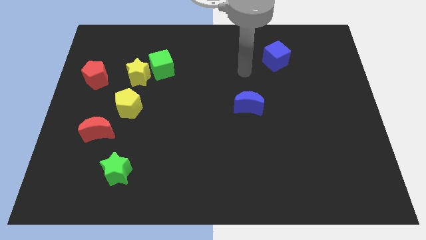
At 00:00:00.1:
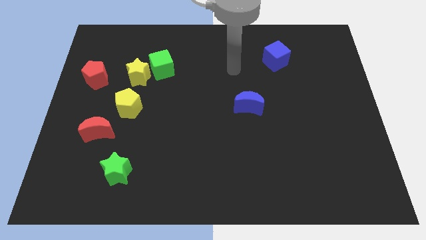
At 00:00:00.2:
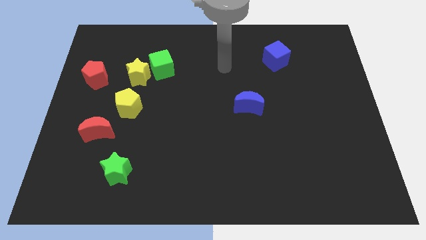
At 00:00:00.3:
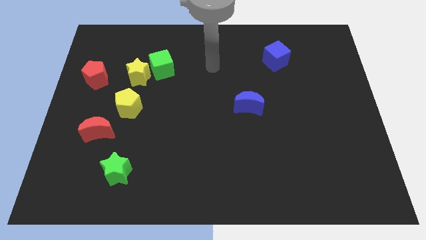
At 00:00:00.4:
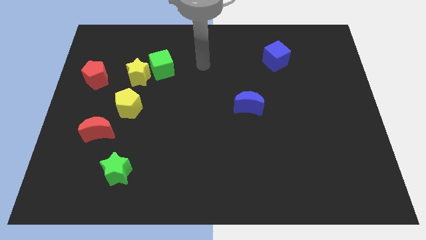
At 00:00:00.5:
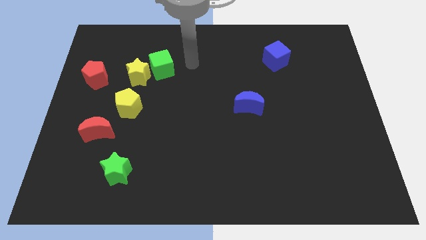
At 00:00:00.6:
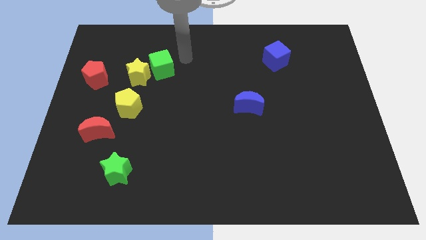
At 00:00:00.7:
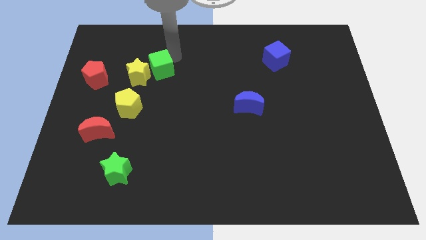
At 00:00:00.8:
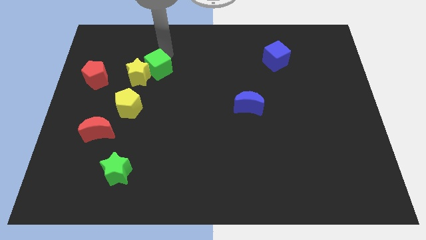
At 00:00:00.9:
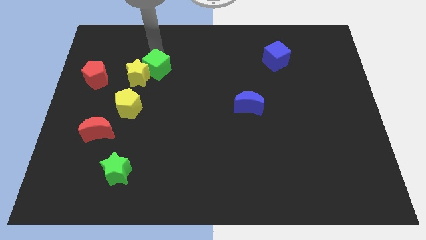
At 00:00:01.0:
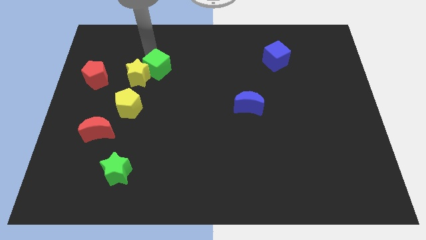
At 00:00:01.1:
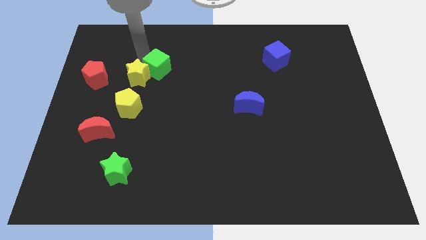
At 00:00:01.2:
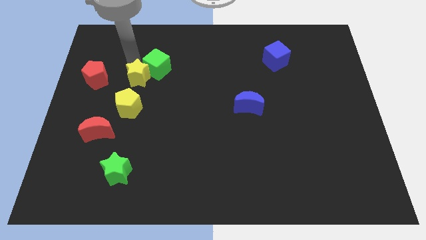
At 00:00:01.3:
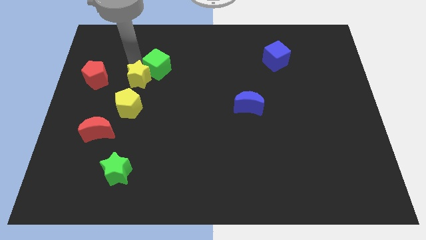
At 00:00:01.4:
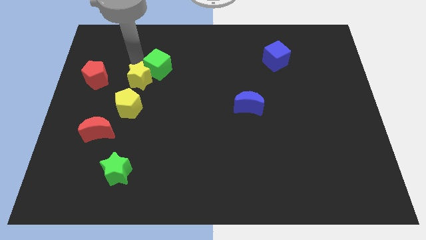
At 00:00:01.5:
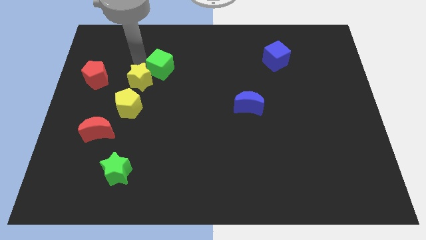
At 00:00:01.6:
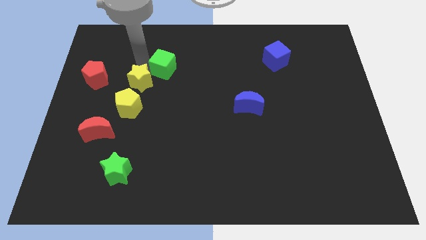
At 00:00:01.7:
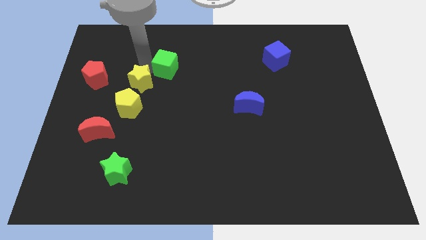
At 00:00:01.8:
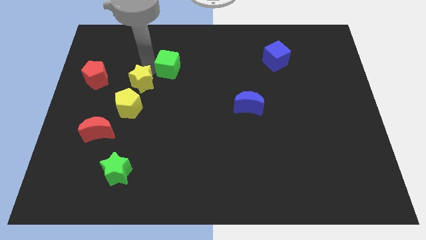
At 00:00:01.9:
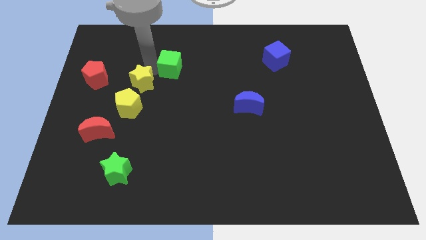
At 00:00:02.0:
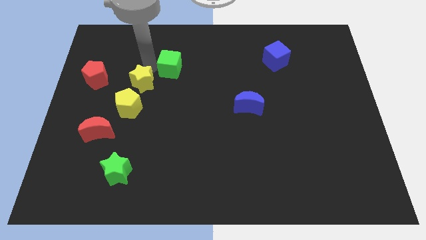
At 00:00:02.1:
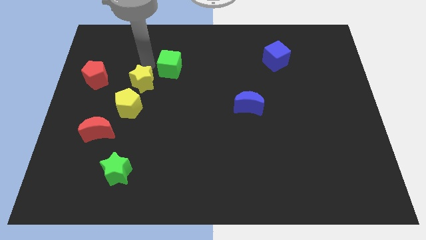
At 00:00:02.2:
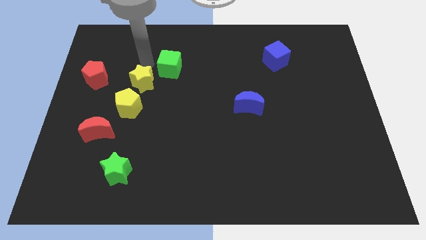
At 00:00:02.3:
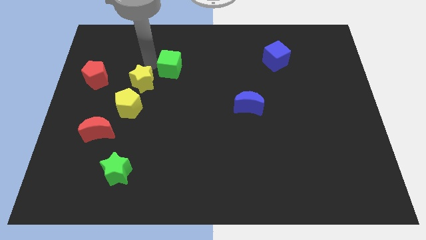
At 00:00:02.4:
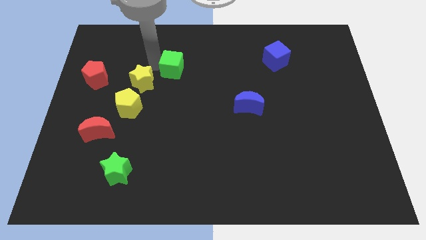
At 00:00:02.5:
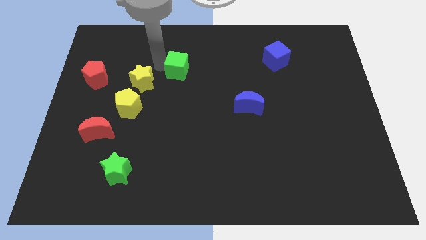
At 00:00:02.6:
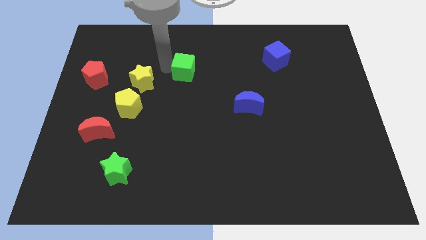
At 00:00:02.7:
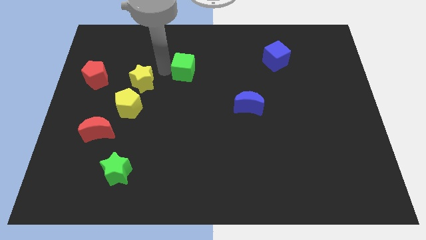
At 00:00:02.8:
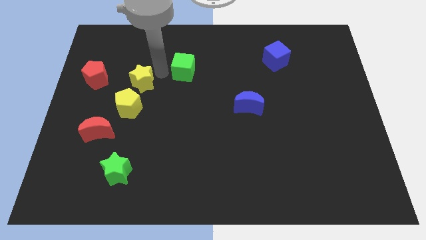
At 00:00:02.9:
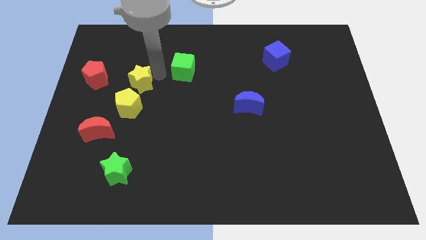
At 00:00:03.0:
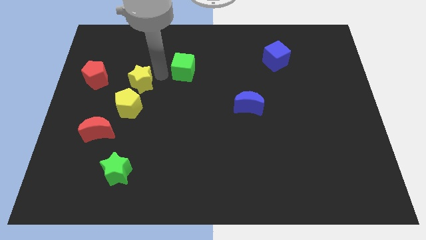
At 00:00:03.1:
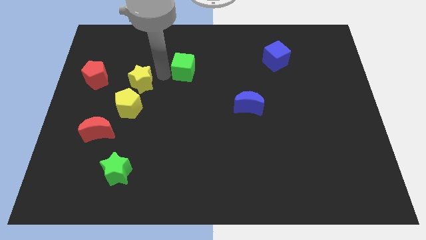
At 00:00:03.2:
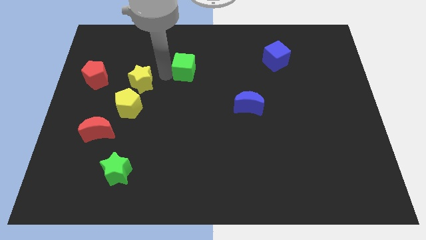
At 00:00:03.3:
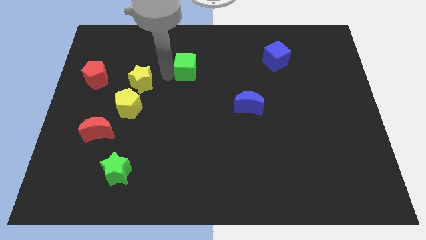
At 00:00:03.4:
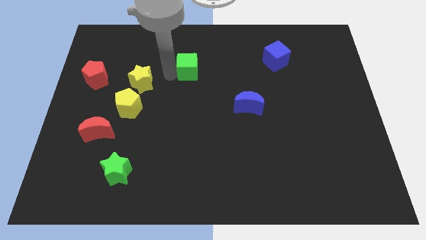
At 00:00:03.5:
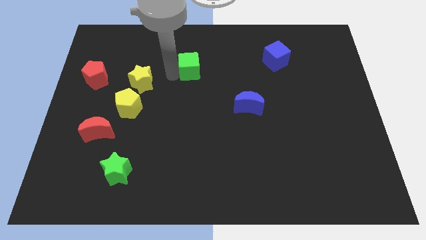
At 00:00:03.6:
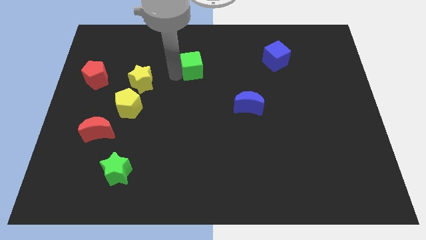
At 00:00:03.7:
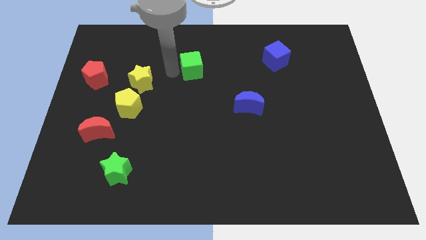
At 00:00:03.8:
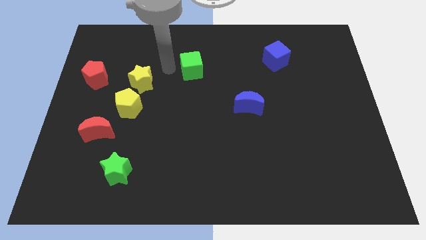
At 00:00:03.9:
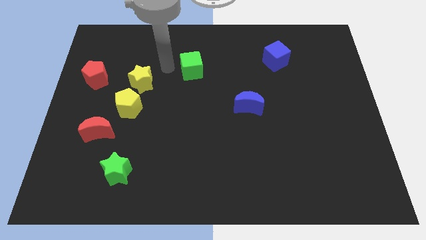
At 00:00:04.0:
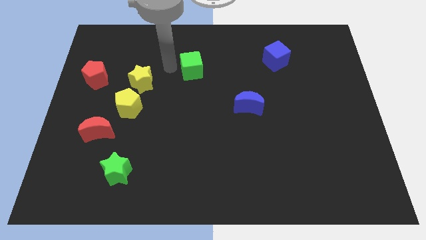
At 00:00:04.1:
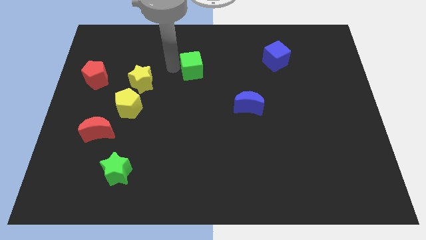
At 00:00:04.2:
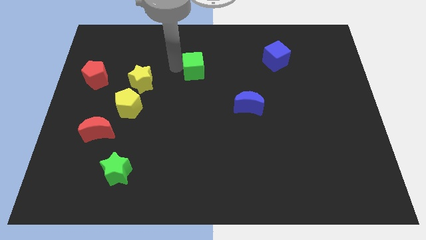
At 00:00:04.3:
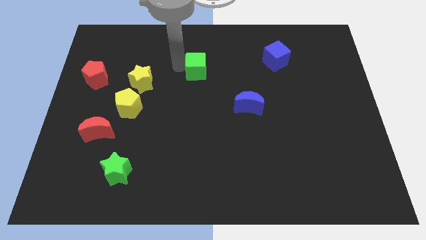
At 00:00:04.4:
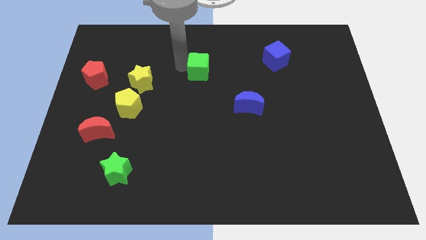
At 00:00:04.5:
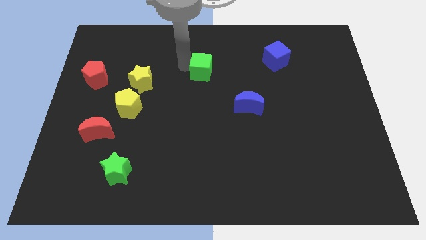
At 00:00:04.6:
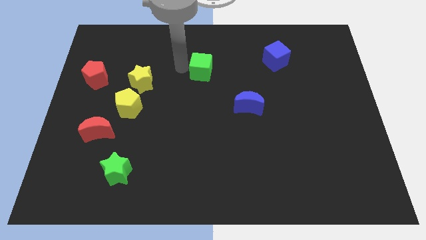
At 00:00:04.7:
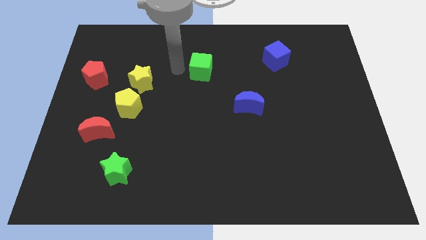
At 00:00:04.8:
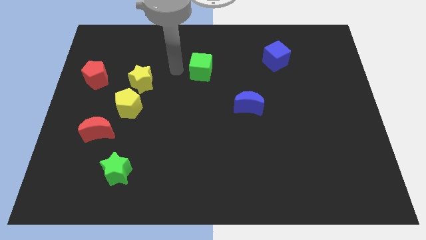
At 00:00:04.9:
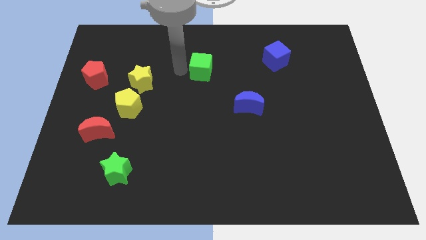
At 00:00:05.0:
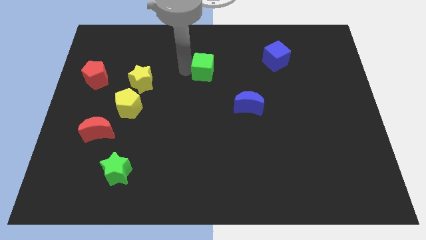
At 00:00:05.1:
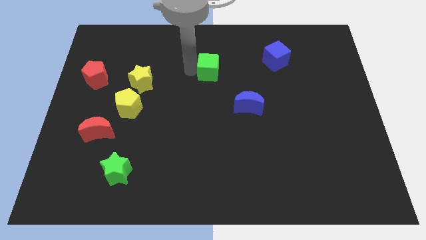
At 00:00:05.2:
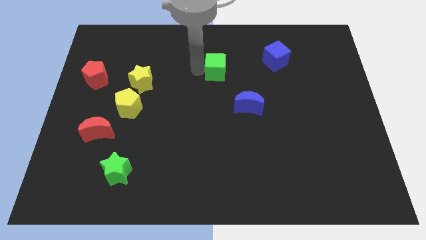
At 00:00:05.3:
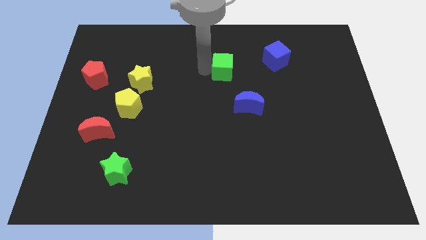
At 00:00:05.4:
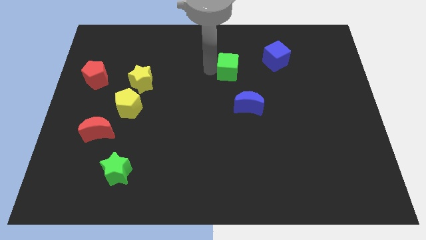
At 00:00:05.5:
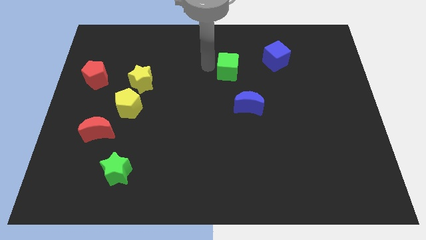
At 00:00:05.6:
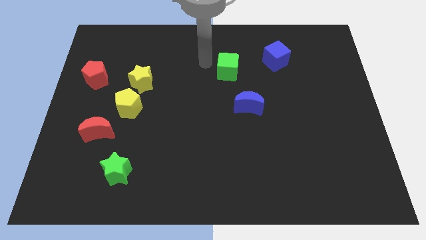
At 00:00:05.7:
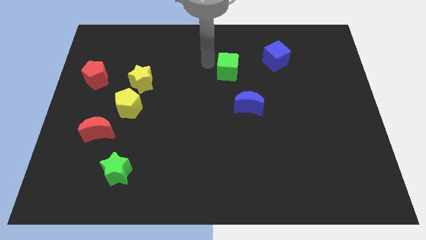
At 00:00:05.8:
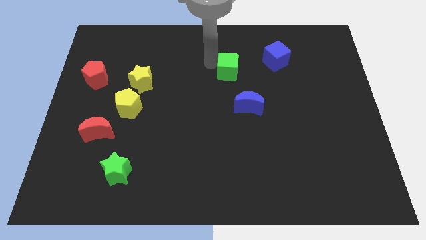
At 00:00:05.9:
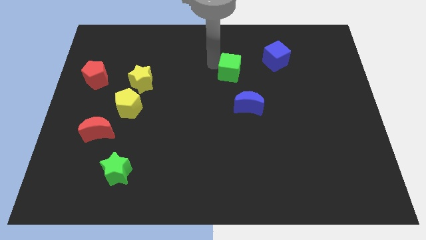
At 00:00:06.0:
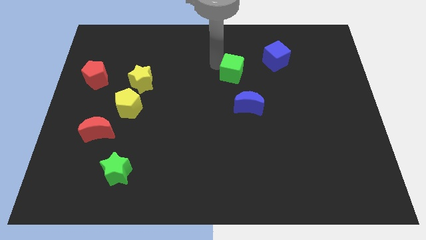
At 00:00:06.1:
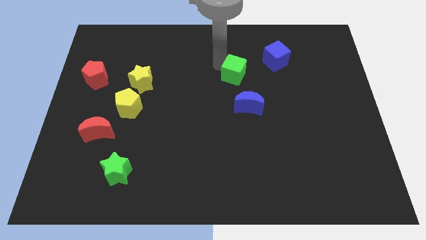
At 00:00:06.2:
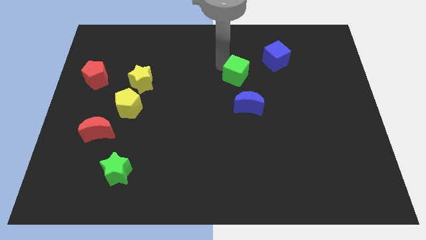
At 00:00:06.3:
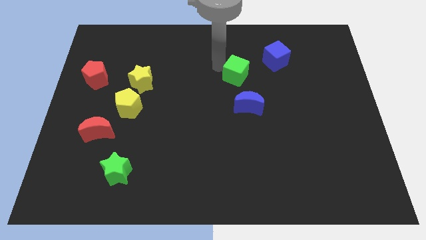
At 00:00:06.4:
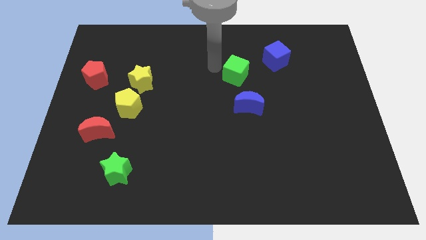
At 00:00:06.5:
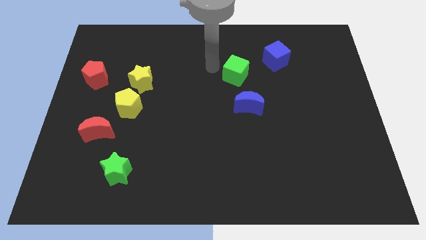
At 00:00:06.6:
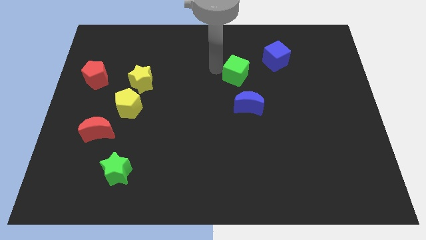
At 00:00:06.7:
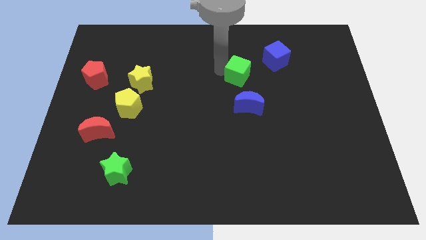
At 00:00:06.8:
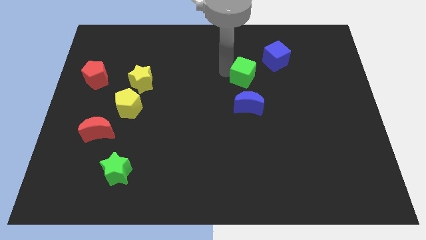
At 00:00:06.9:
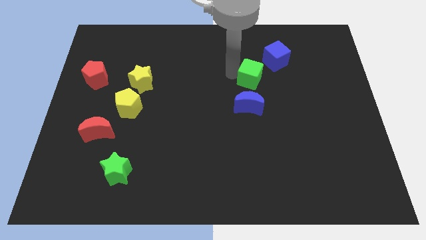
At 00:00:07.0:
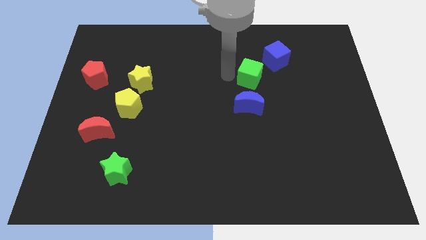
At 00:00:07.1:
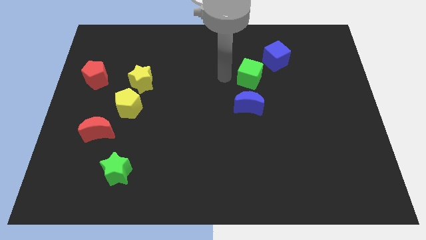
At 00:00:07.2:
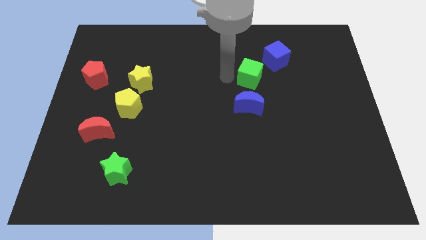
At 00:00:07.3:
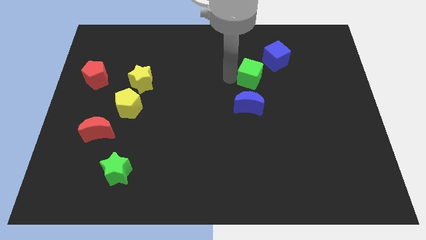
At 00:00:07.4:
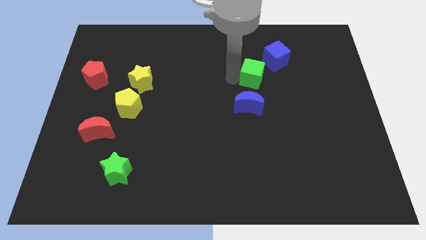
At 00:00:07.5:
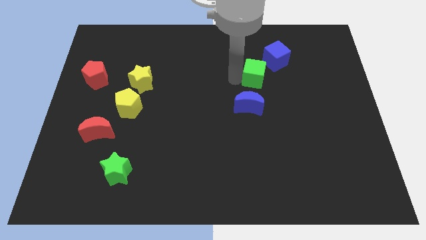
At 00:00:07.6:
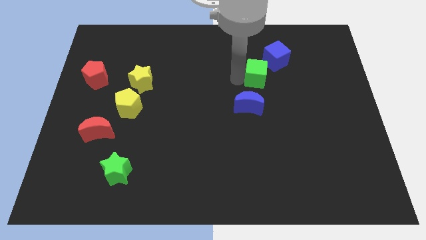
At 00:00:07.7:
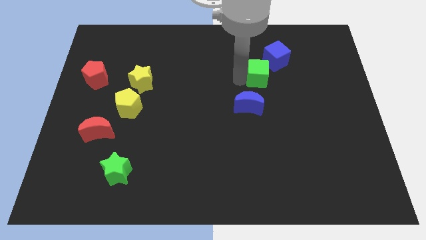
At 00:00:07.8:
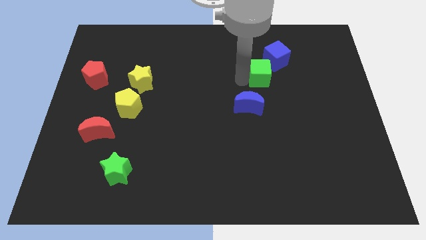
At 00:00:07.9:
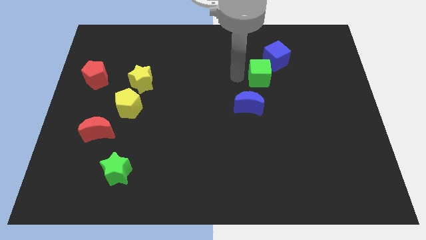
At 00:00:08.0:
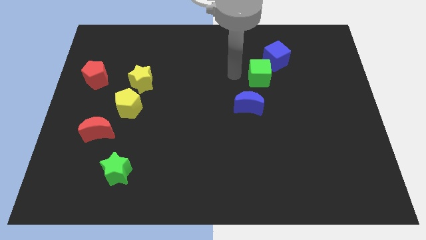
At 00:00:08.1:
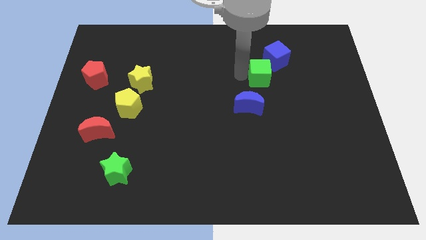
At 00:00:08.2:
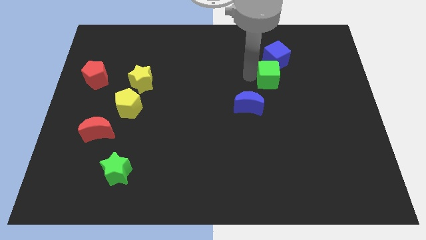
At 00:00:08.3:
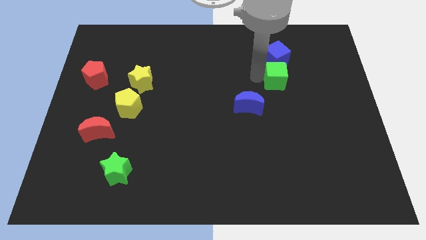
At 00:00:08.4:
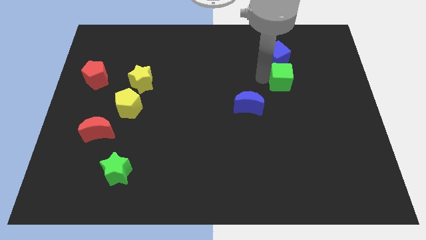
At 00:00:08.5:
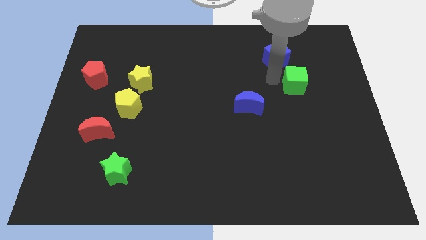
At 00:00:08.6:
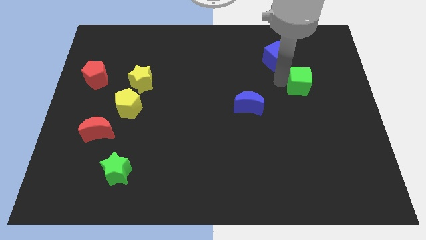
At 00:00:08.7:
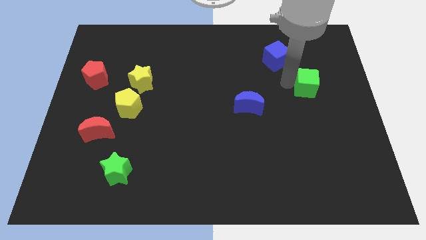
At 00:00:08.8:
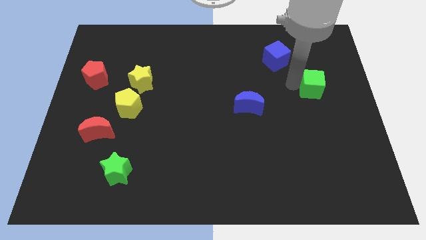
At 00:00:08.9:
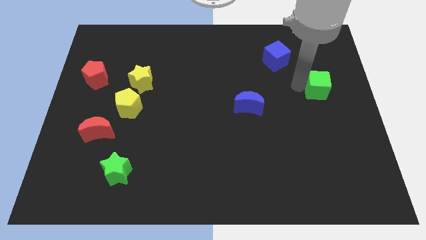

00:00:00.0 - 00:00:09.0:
move the green cube to the right side of the board
